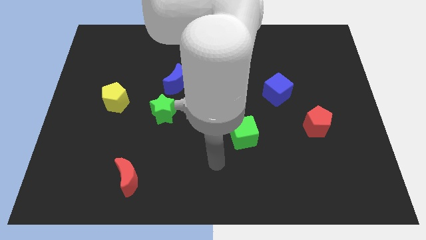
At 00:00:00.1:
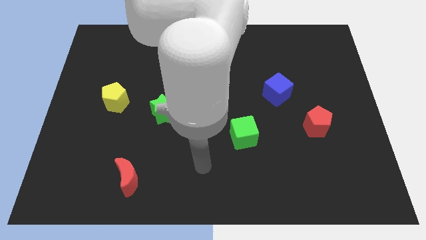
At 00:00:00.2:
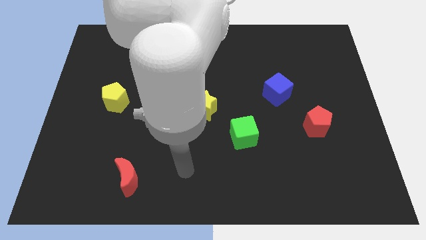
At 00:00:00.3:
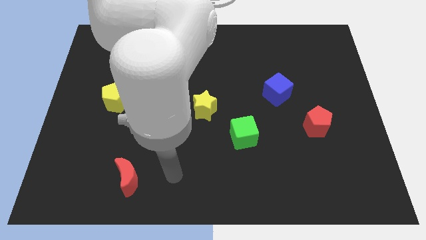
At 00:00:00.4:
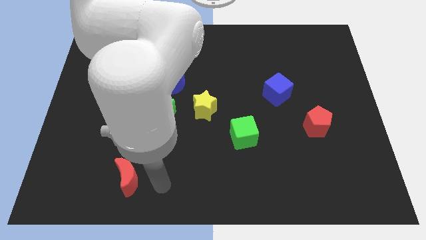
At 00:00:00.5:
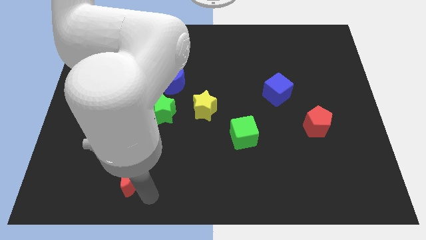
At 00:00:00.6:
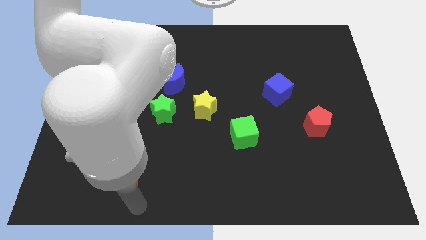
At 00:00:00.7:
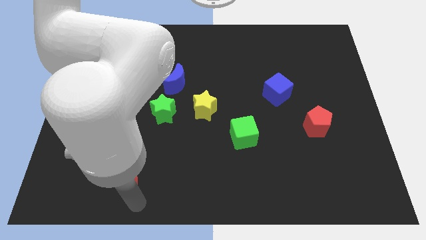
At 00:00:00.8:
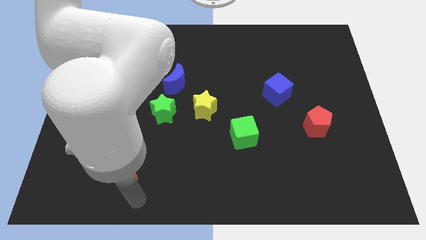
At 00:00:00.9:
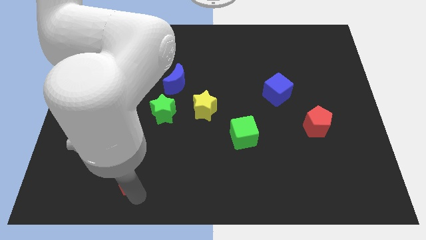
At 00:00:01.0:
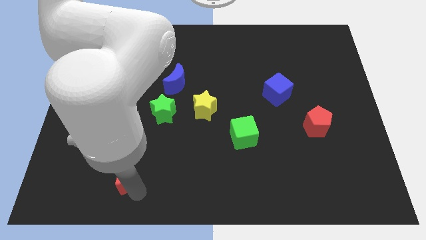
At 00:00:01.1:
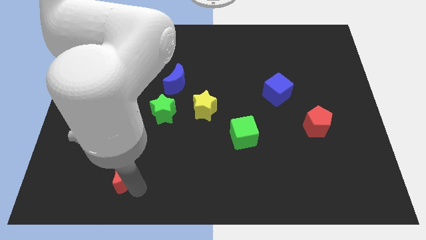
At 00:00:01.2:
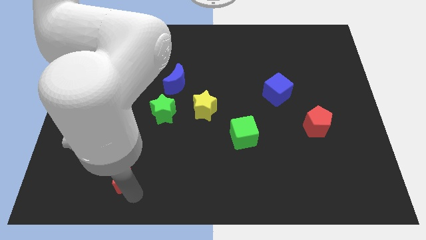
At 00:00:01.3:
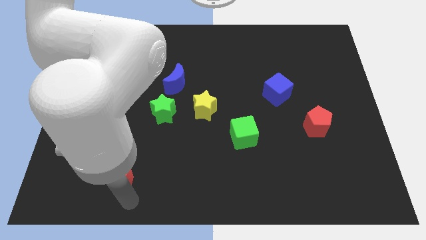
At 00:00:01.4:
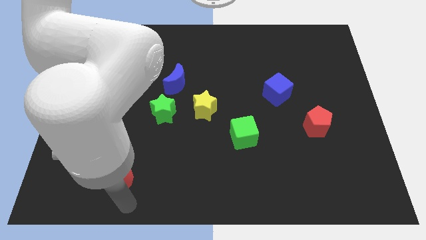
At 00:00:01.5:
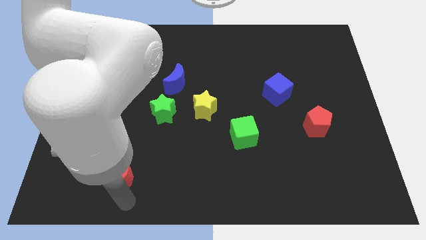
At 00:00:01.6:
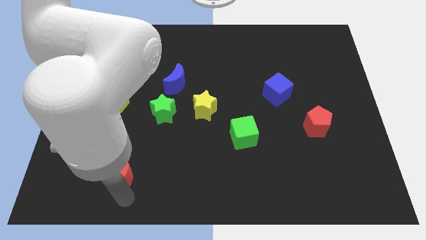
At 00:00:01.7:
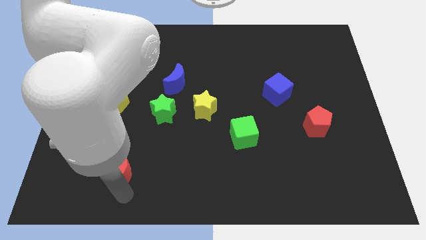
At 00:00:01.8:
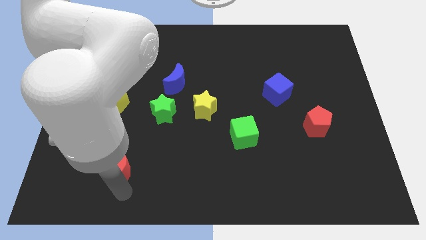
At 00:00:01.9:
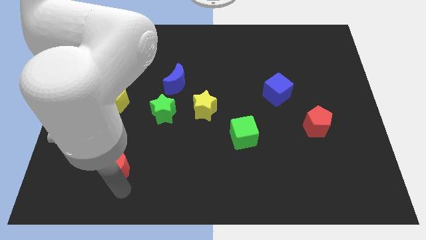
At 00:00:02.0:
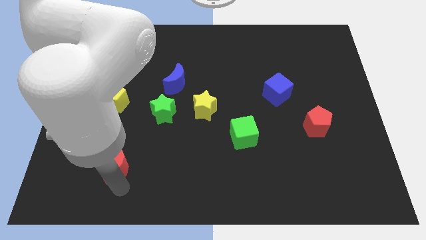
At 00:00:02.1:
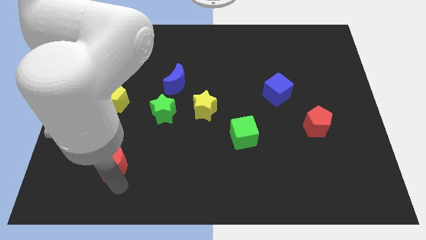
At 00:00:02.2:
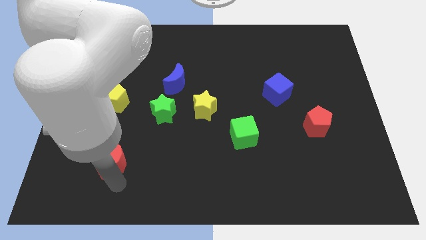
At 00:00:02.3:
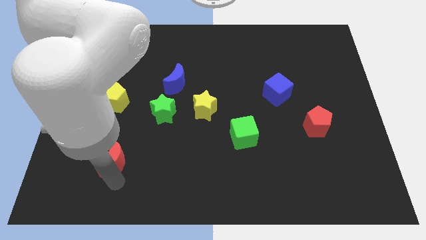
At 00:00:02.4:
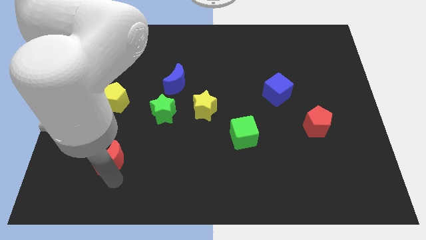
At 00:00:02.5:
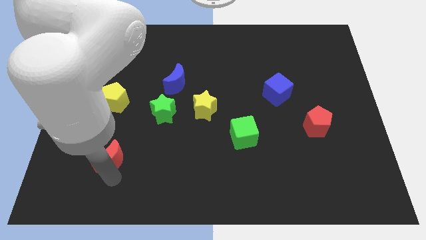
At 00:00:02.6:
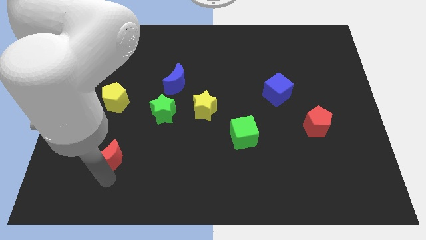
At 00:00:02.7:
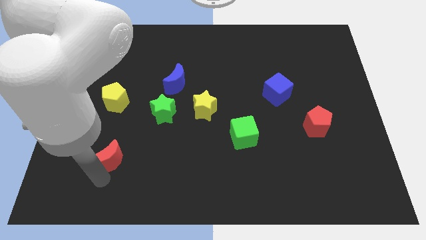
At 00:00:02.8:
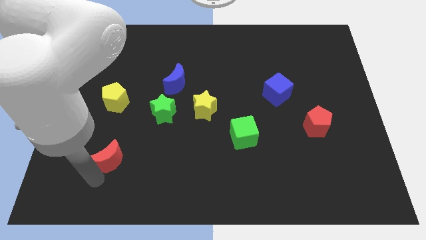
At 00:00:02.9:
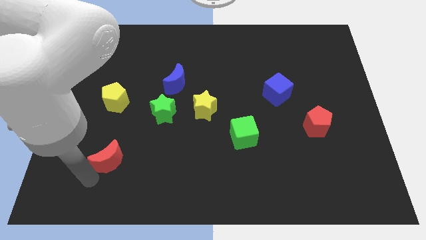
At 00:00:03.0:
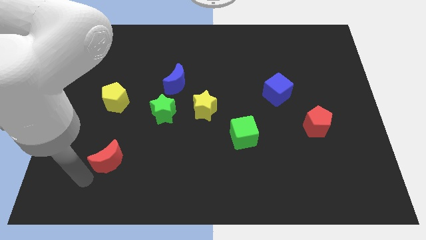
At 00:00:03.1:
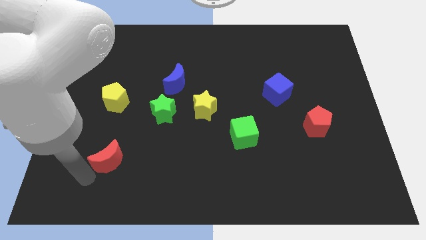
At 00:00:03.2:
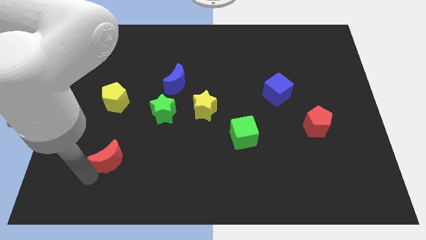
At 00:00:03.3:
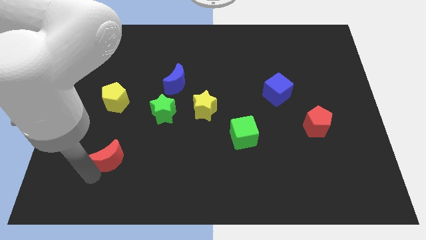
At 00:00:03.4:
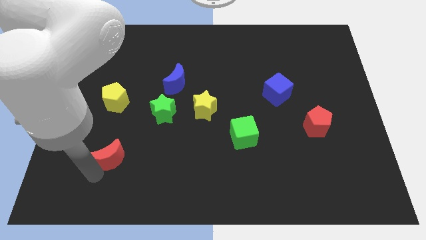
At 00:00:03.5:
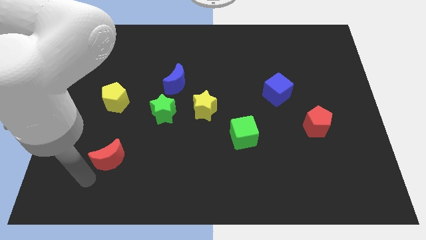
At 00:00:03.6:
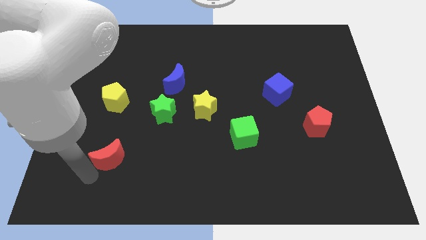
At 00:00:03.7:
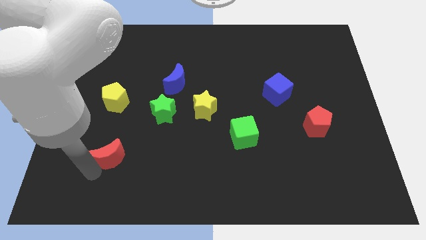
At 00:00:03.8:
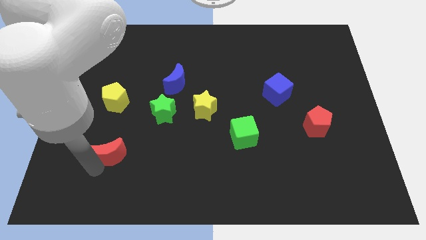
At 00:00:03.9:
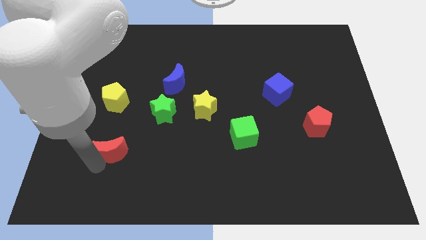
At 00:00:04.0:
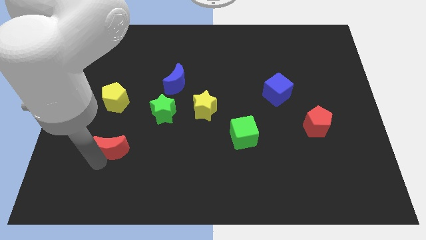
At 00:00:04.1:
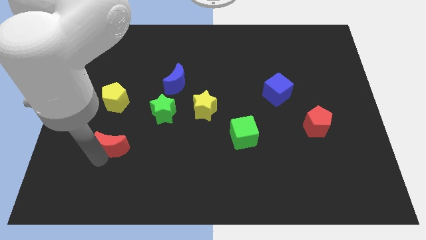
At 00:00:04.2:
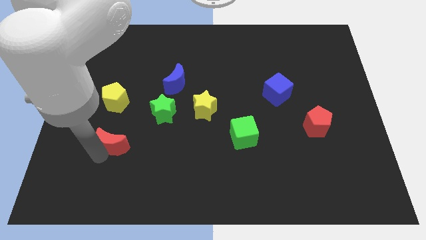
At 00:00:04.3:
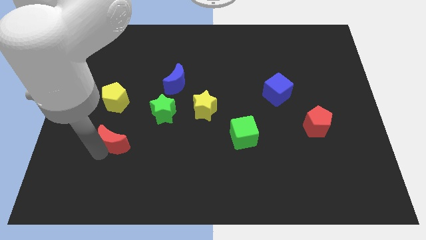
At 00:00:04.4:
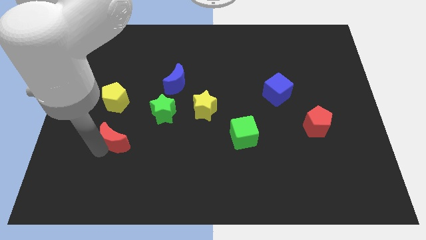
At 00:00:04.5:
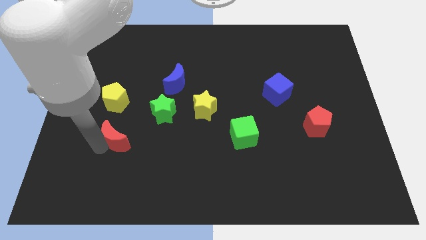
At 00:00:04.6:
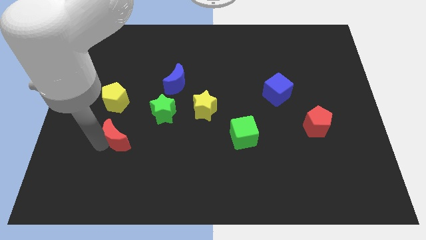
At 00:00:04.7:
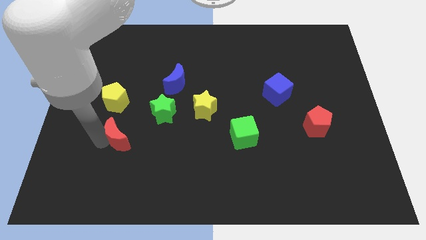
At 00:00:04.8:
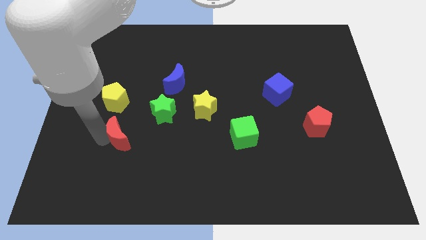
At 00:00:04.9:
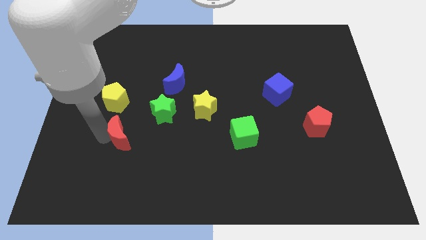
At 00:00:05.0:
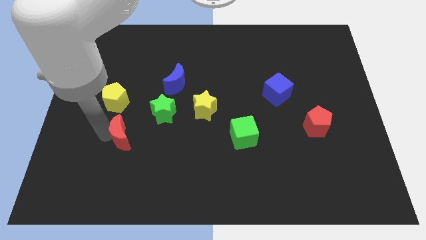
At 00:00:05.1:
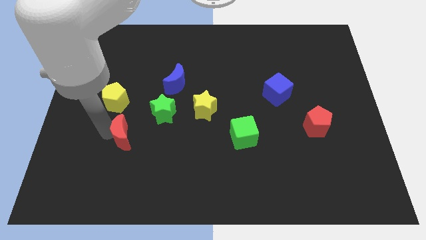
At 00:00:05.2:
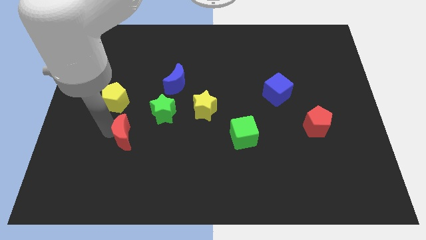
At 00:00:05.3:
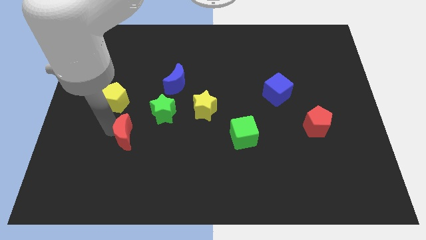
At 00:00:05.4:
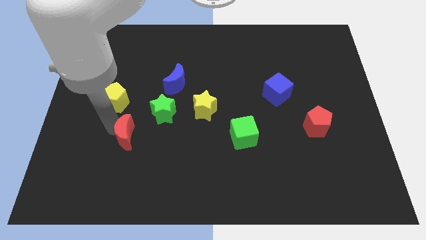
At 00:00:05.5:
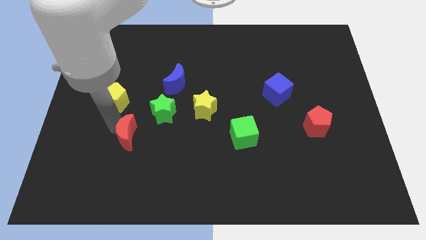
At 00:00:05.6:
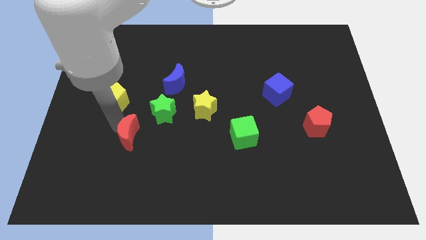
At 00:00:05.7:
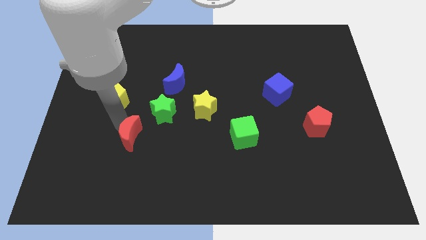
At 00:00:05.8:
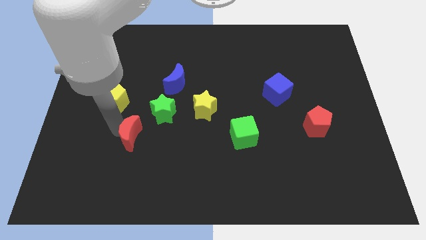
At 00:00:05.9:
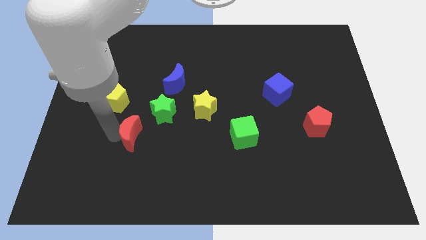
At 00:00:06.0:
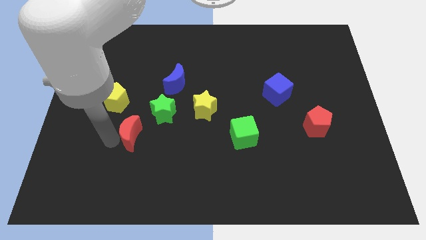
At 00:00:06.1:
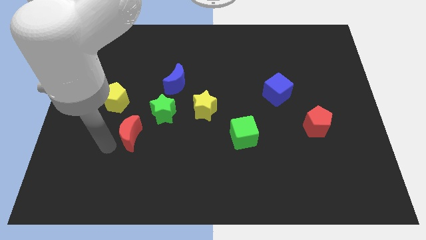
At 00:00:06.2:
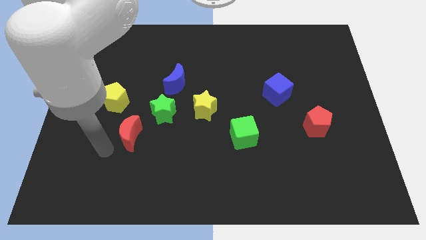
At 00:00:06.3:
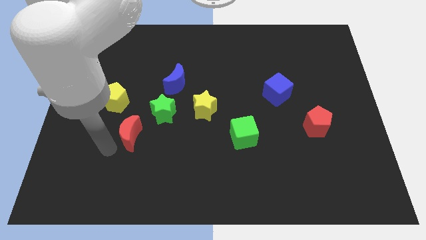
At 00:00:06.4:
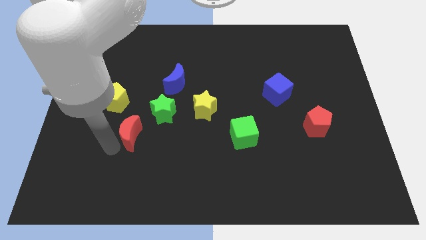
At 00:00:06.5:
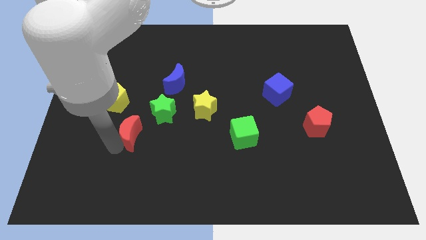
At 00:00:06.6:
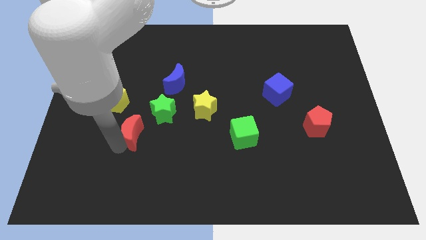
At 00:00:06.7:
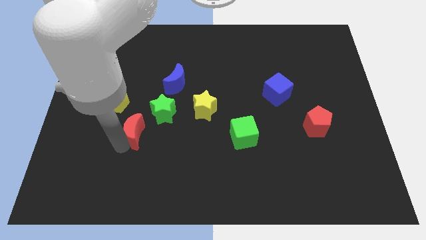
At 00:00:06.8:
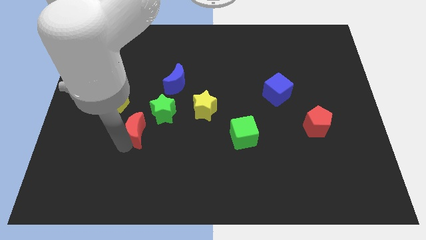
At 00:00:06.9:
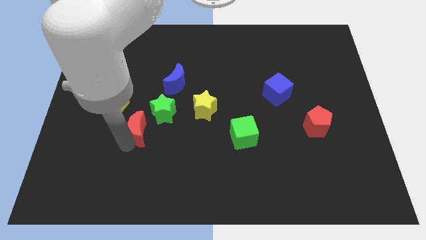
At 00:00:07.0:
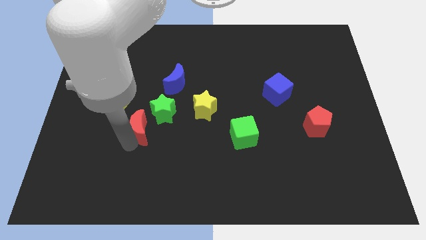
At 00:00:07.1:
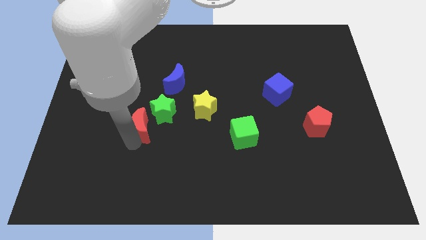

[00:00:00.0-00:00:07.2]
move the red moon close to the green star
